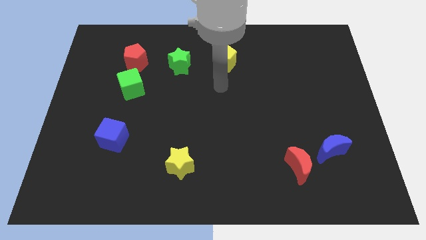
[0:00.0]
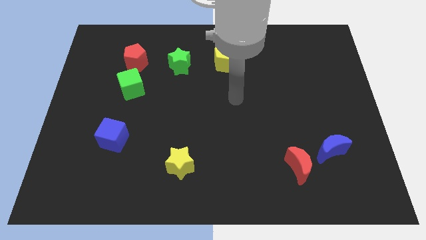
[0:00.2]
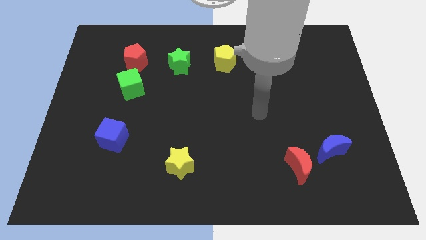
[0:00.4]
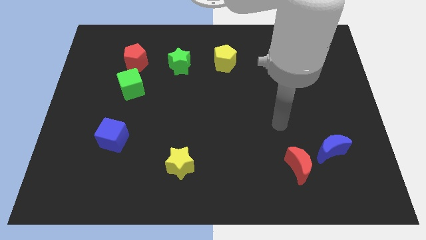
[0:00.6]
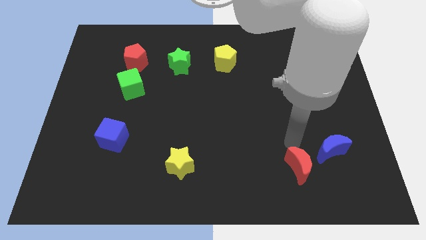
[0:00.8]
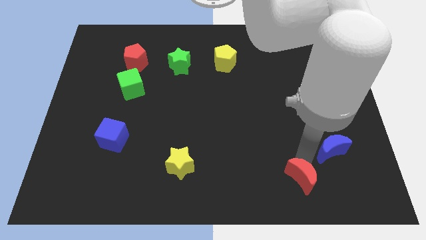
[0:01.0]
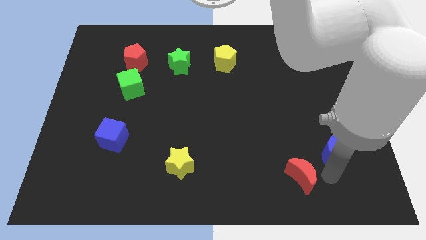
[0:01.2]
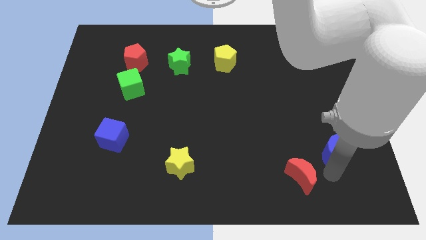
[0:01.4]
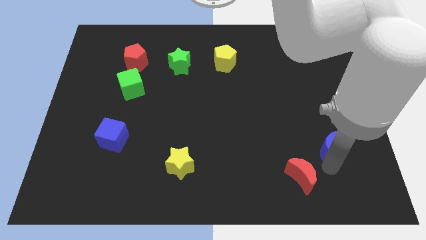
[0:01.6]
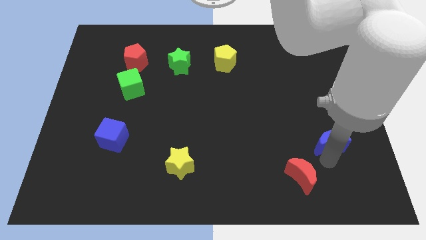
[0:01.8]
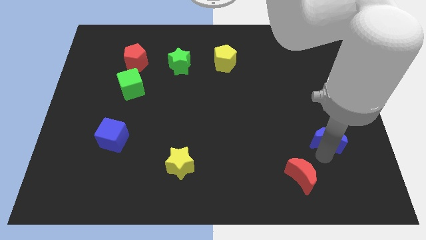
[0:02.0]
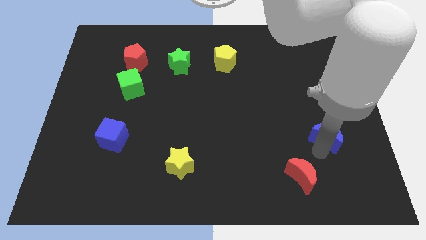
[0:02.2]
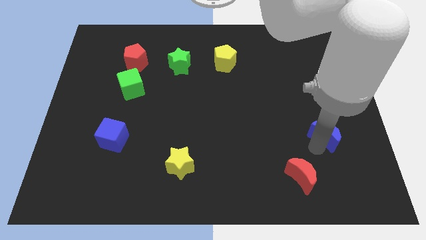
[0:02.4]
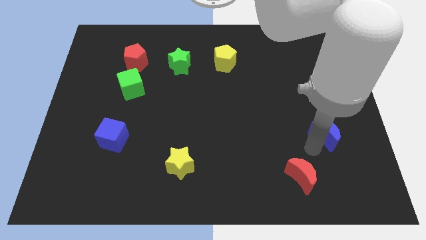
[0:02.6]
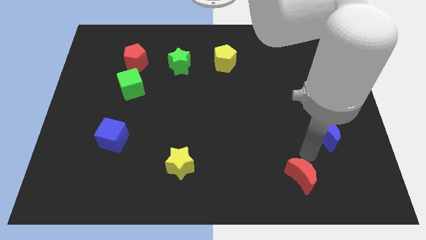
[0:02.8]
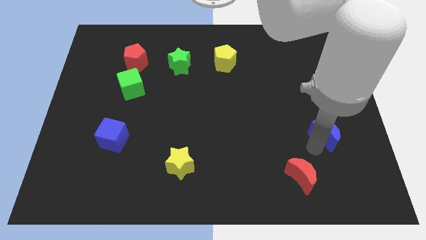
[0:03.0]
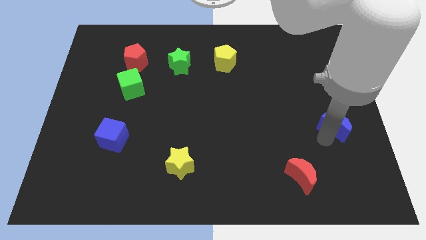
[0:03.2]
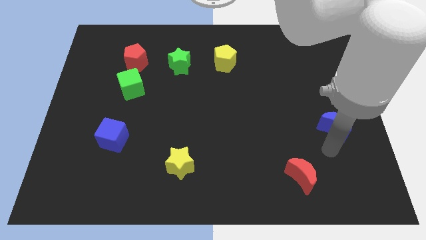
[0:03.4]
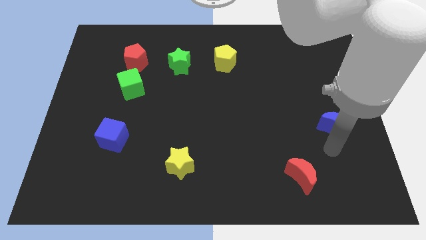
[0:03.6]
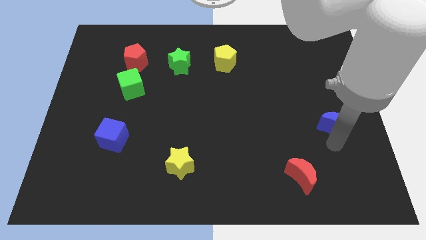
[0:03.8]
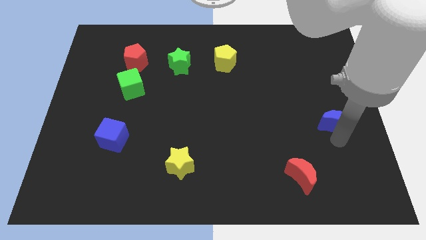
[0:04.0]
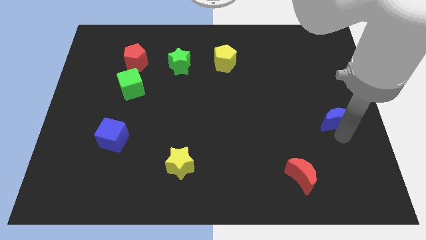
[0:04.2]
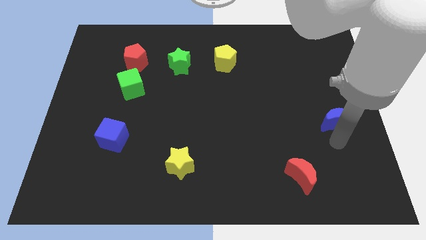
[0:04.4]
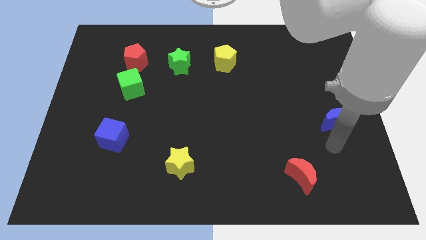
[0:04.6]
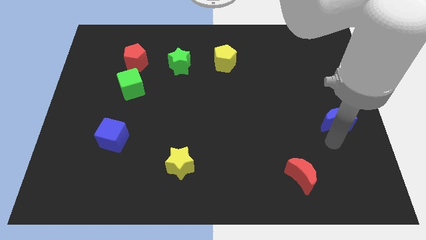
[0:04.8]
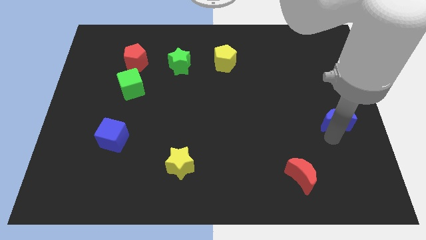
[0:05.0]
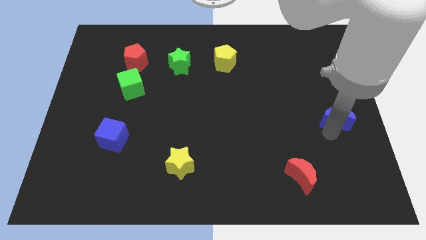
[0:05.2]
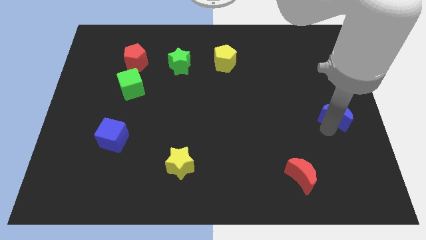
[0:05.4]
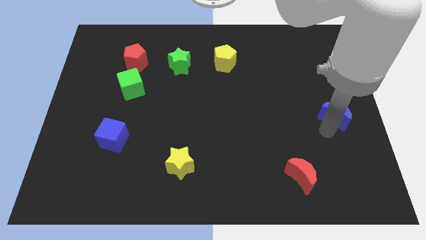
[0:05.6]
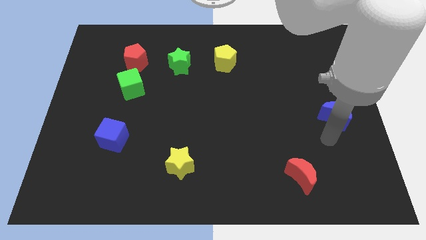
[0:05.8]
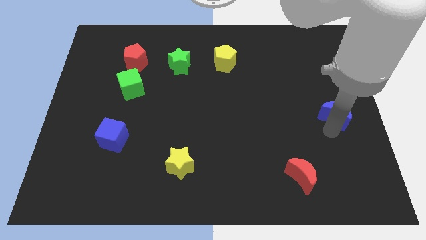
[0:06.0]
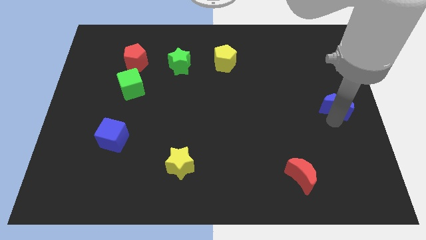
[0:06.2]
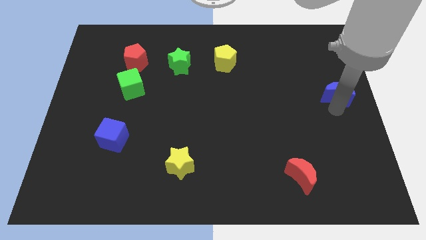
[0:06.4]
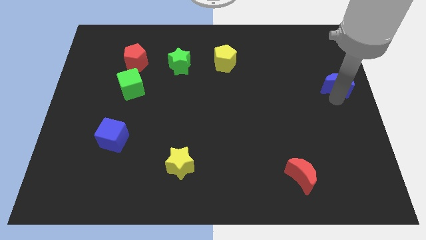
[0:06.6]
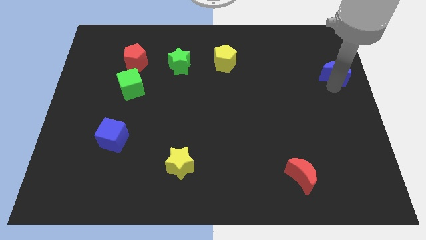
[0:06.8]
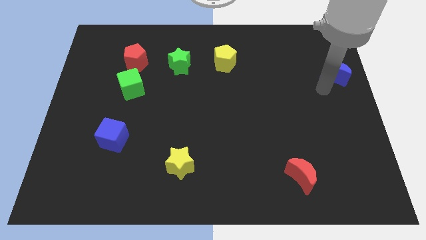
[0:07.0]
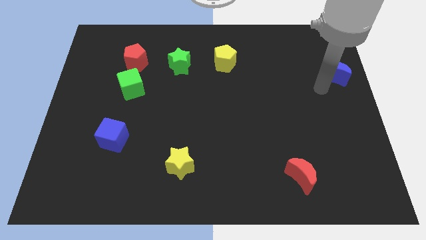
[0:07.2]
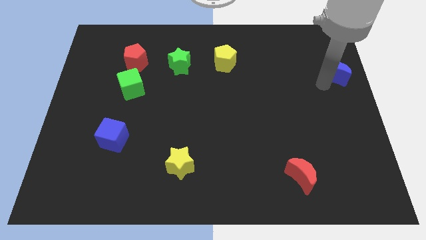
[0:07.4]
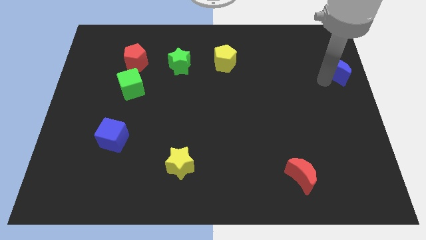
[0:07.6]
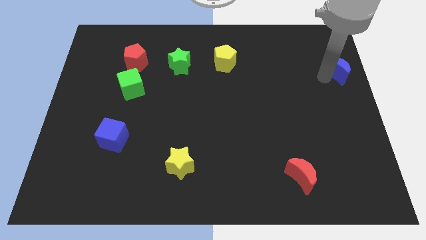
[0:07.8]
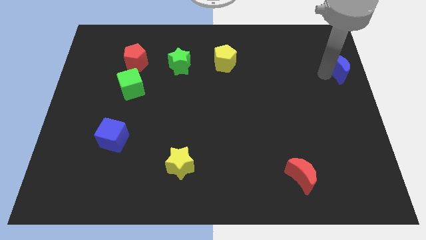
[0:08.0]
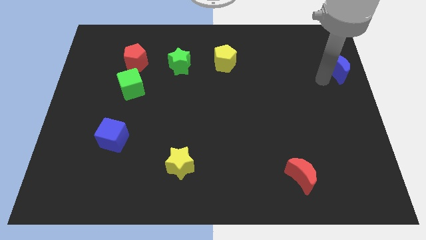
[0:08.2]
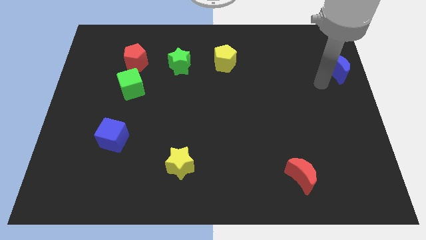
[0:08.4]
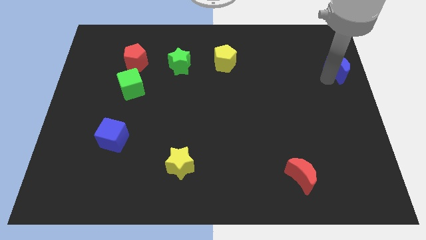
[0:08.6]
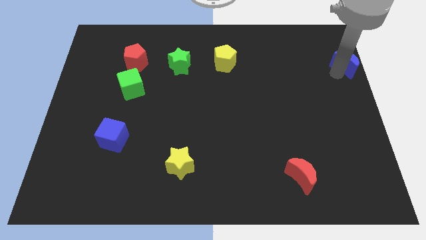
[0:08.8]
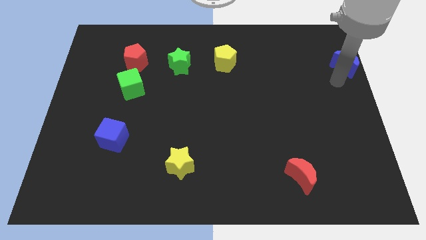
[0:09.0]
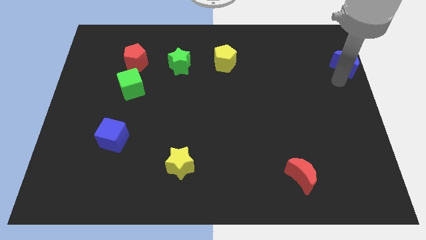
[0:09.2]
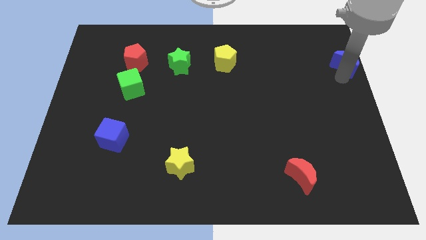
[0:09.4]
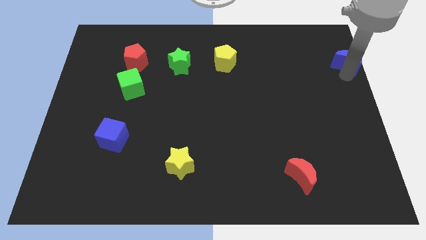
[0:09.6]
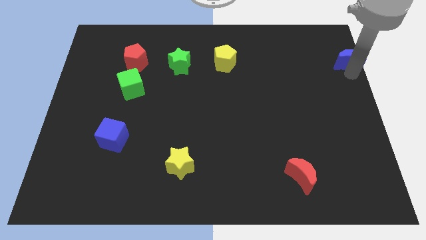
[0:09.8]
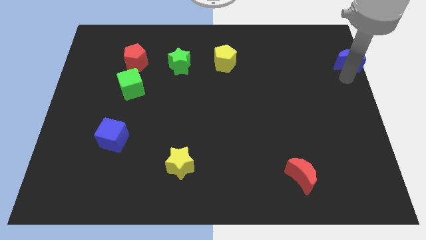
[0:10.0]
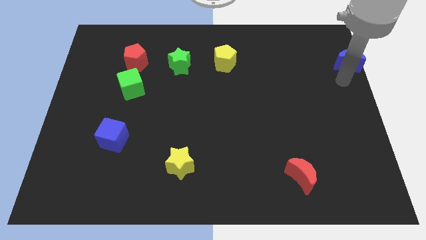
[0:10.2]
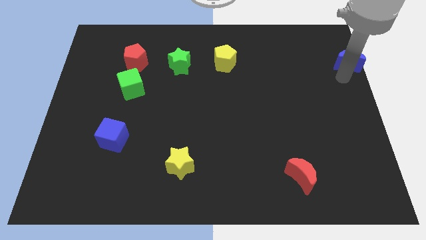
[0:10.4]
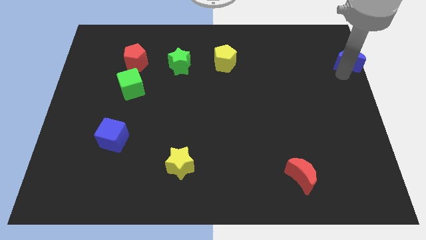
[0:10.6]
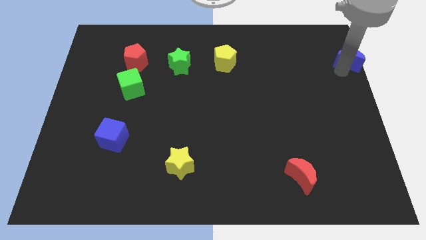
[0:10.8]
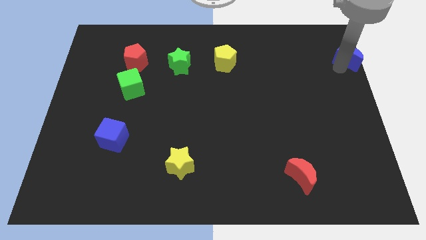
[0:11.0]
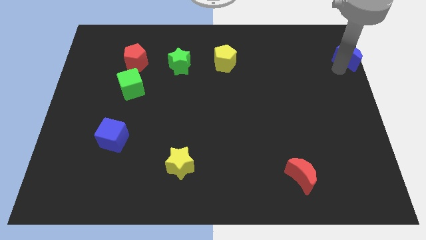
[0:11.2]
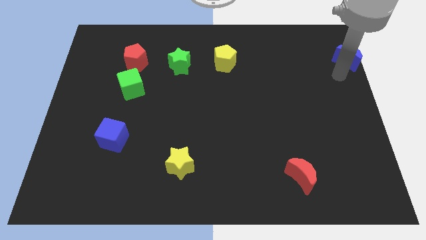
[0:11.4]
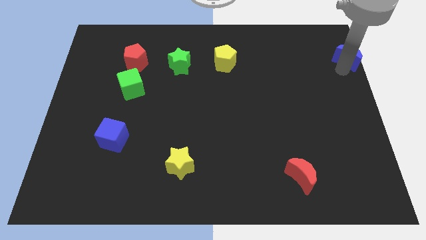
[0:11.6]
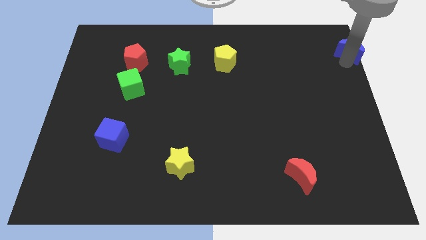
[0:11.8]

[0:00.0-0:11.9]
push the blue moon to the top right
